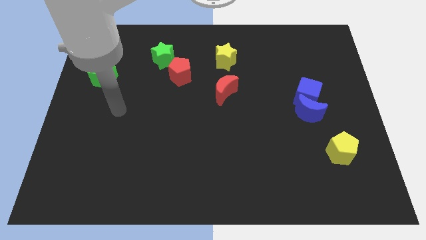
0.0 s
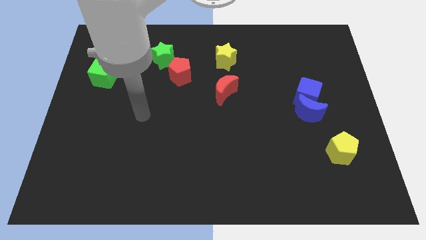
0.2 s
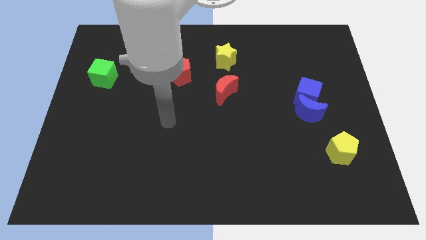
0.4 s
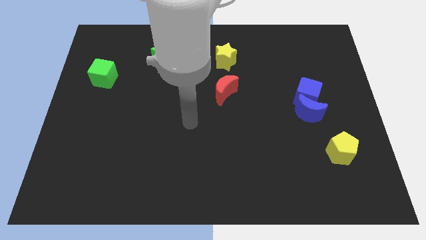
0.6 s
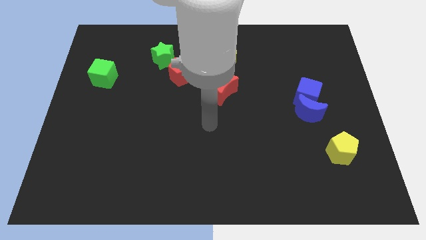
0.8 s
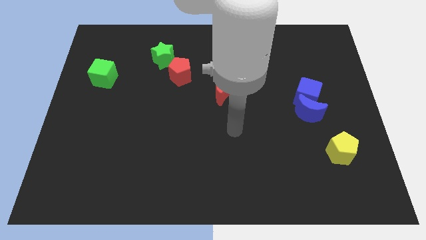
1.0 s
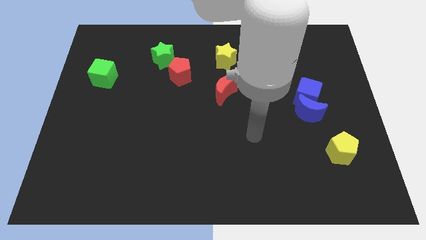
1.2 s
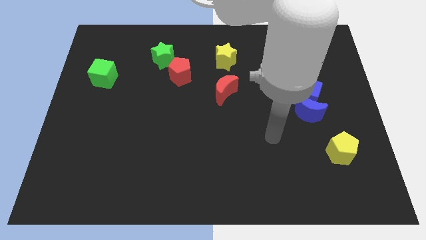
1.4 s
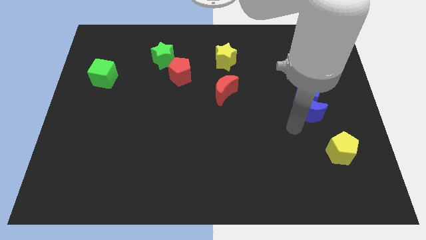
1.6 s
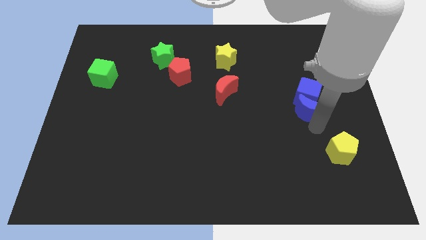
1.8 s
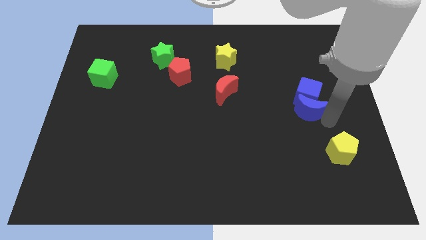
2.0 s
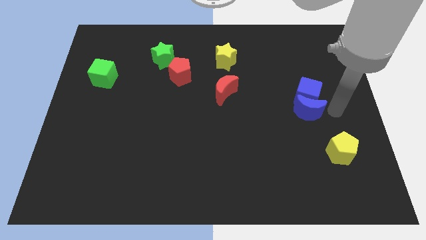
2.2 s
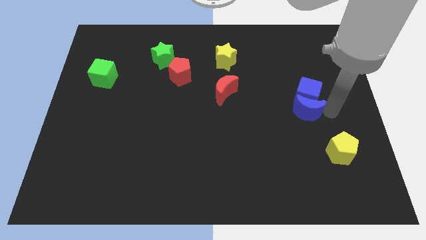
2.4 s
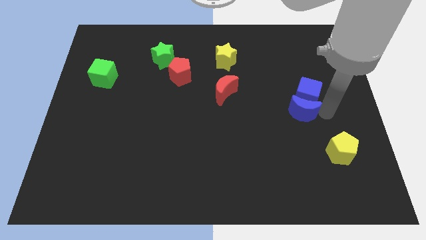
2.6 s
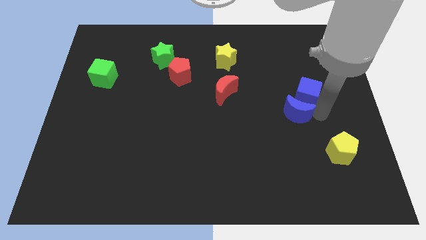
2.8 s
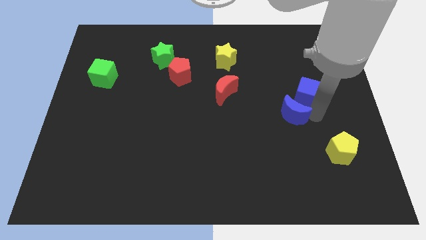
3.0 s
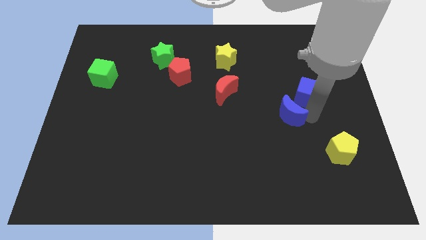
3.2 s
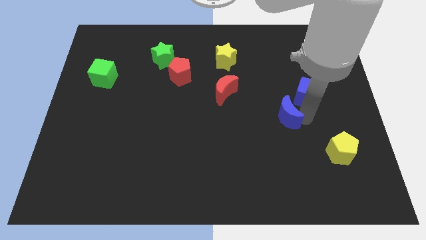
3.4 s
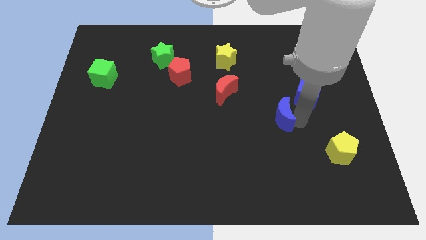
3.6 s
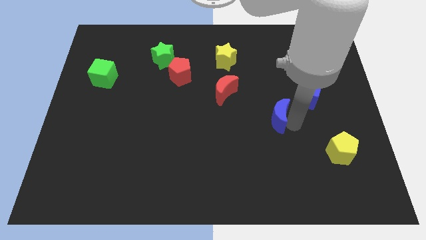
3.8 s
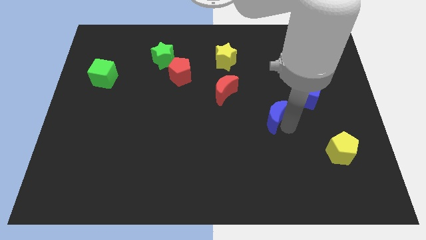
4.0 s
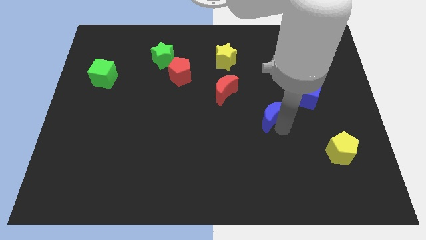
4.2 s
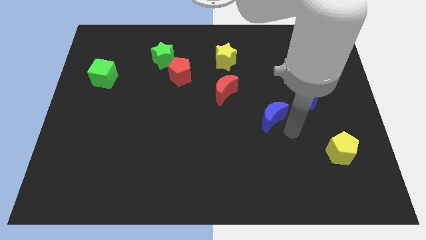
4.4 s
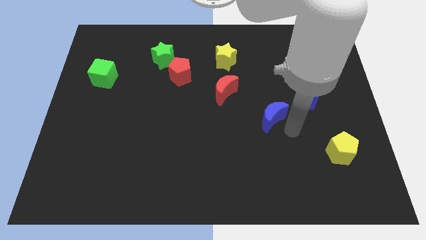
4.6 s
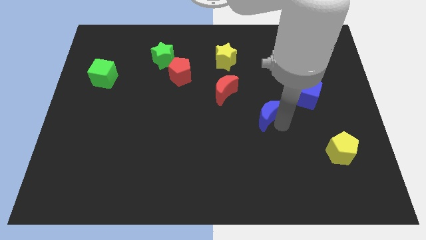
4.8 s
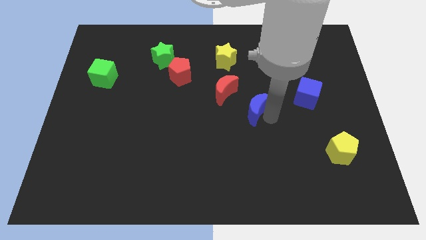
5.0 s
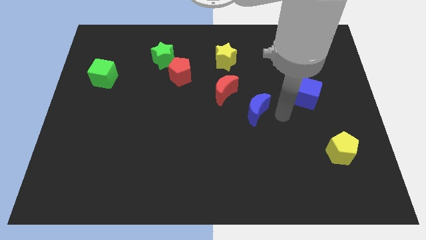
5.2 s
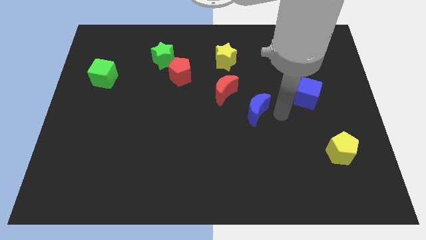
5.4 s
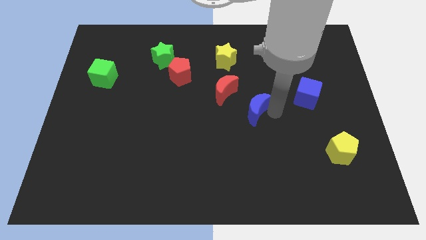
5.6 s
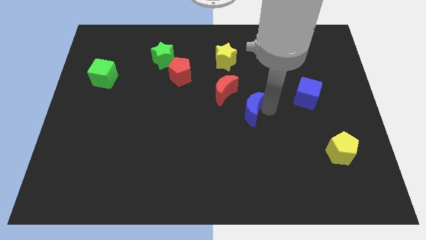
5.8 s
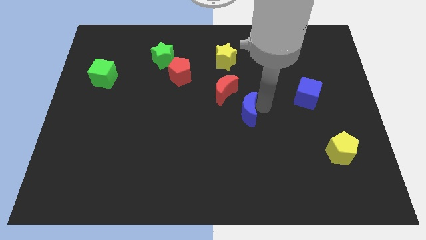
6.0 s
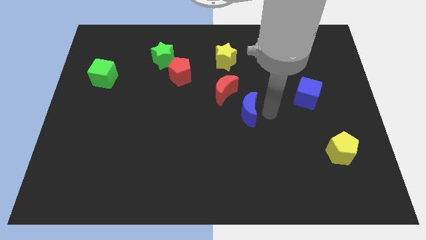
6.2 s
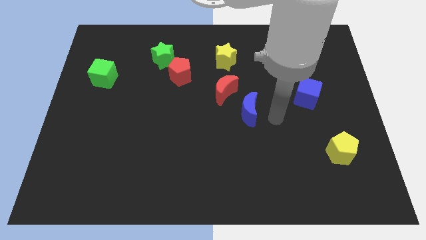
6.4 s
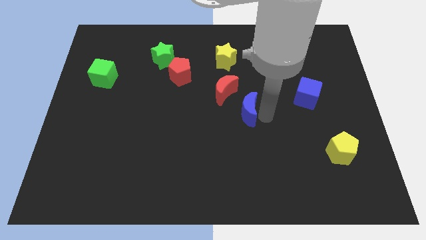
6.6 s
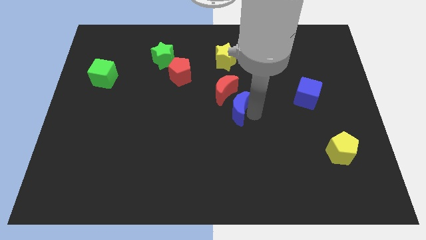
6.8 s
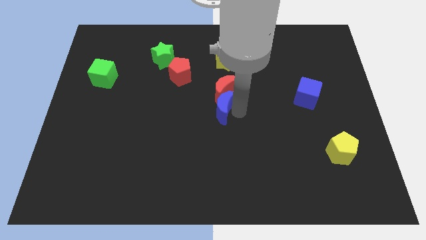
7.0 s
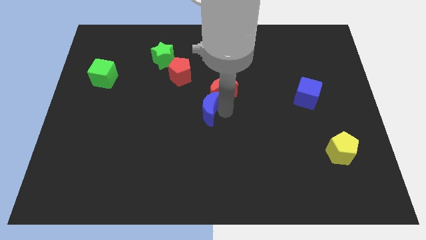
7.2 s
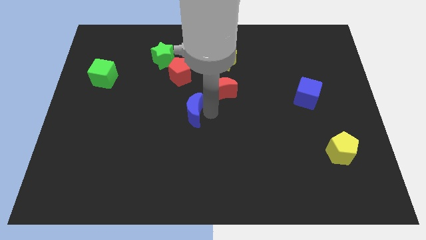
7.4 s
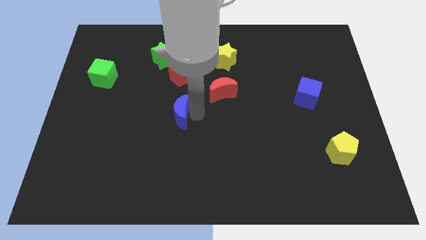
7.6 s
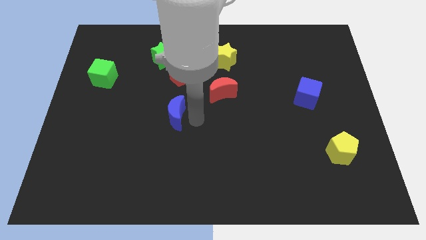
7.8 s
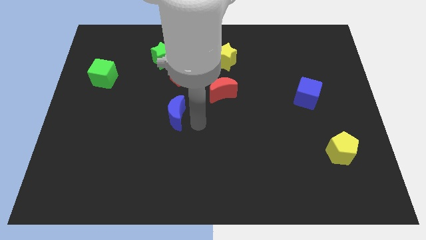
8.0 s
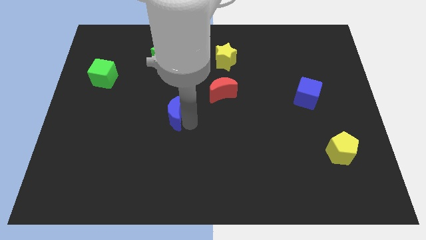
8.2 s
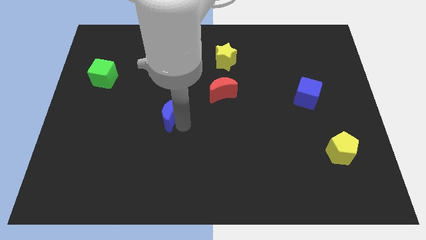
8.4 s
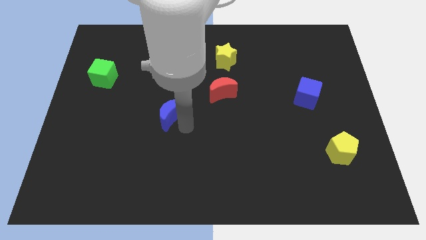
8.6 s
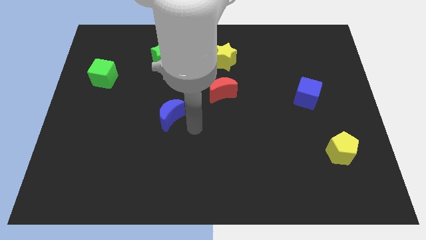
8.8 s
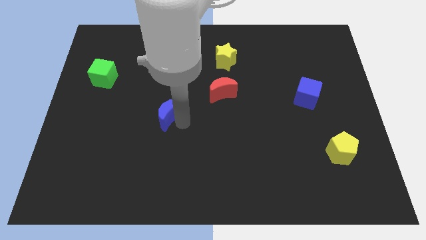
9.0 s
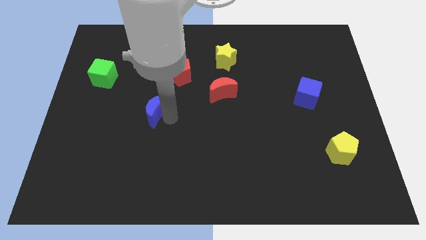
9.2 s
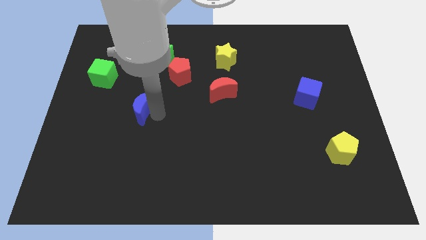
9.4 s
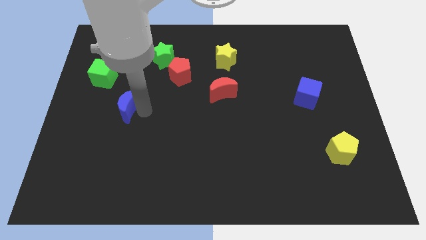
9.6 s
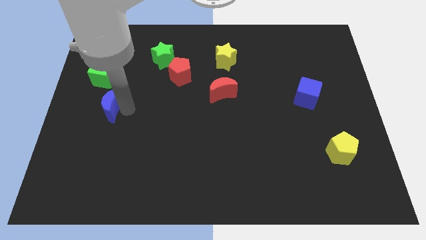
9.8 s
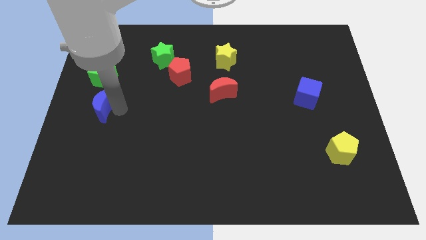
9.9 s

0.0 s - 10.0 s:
slide the blue moon to the left side
